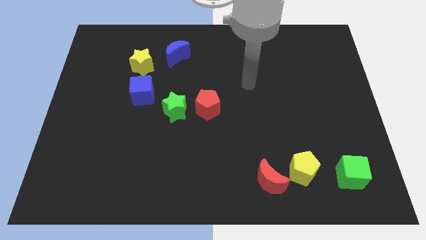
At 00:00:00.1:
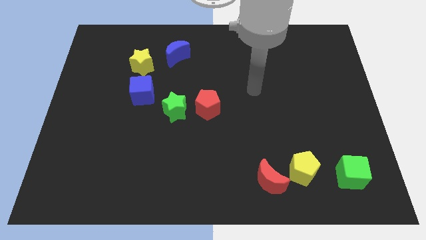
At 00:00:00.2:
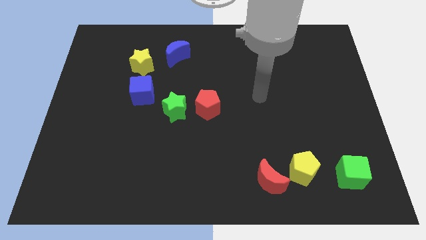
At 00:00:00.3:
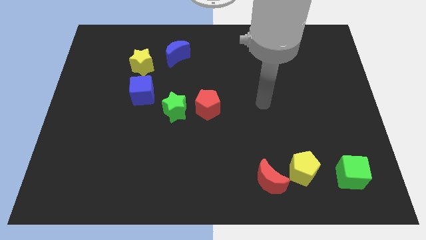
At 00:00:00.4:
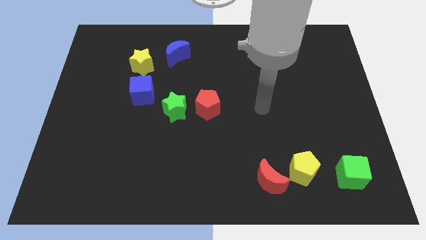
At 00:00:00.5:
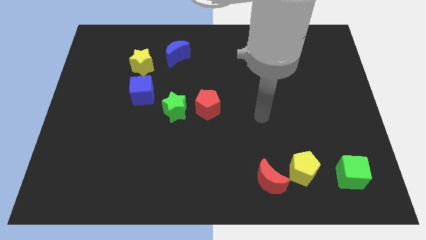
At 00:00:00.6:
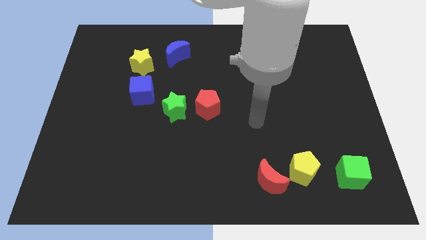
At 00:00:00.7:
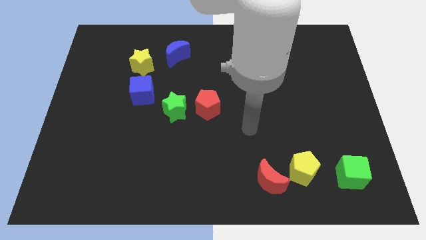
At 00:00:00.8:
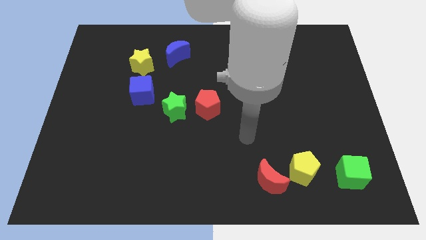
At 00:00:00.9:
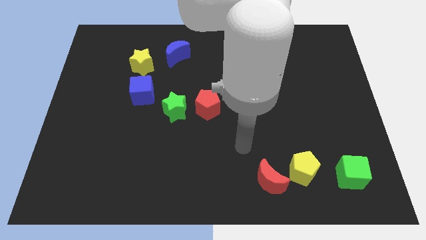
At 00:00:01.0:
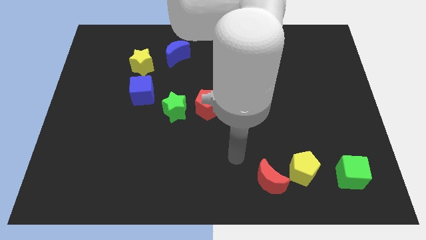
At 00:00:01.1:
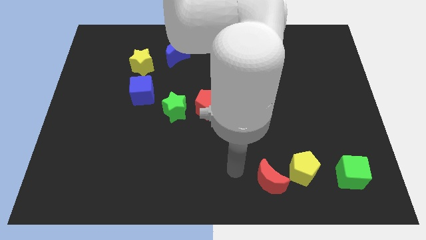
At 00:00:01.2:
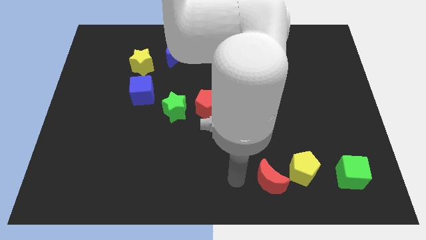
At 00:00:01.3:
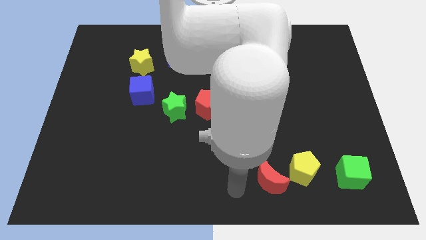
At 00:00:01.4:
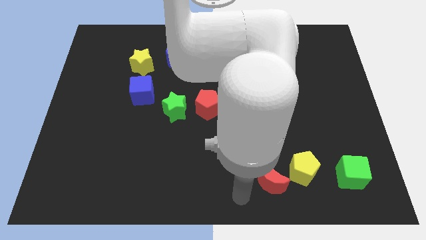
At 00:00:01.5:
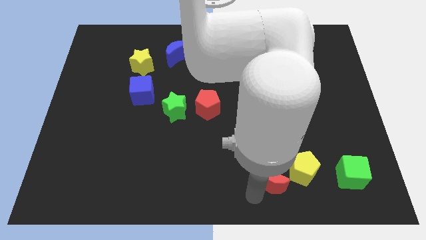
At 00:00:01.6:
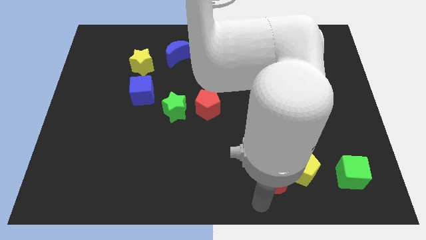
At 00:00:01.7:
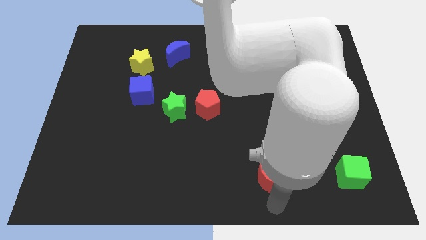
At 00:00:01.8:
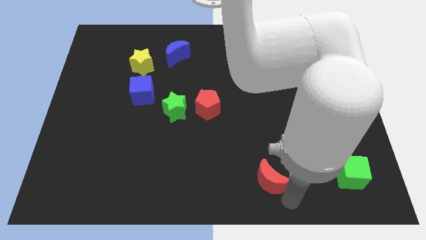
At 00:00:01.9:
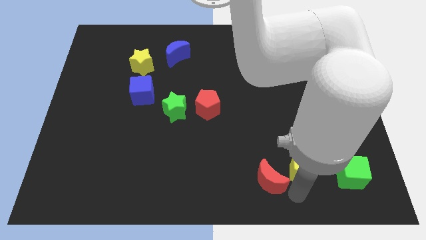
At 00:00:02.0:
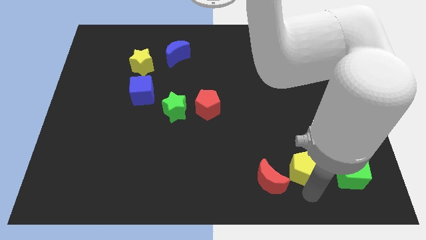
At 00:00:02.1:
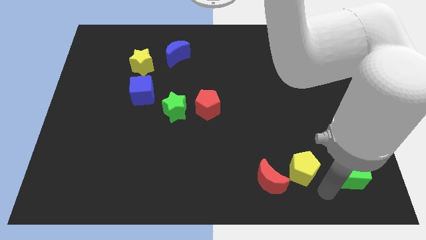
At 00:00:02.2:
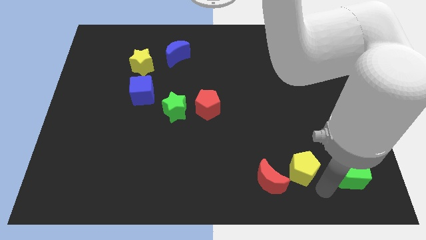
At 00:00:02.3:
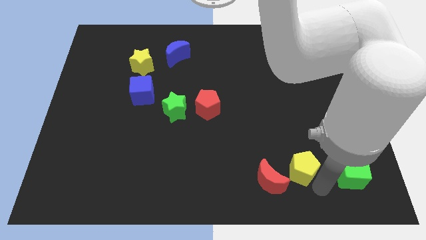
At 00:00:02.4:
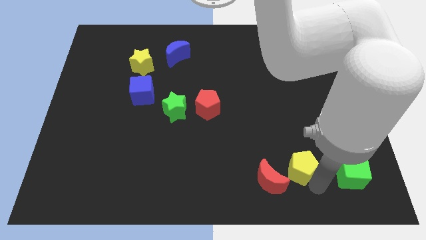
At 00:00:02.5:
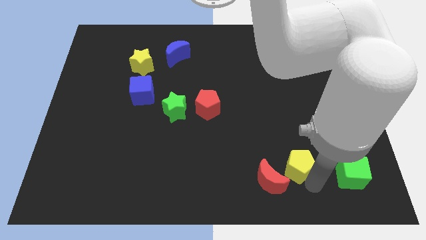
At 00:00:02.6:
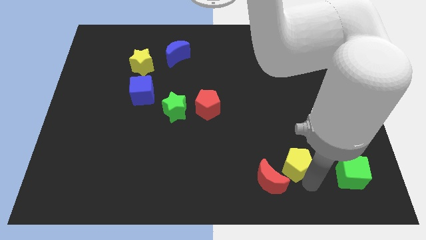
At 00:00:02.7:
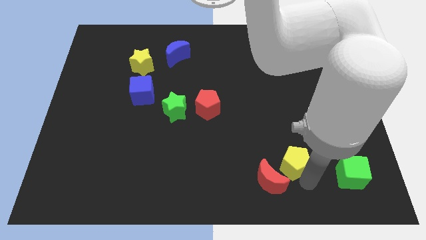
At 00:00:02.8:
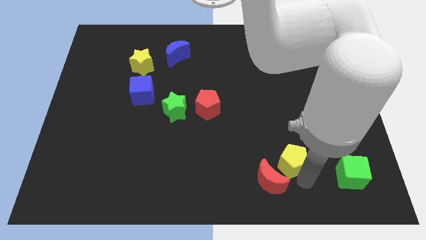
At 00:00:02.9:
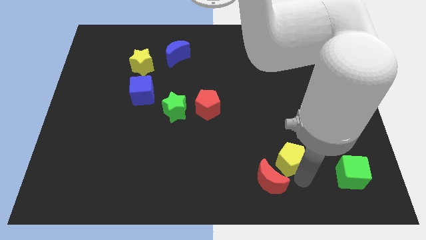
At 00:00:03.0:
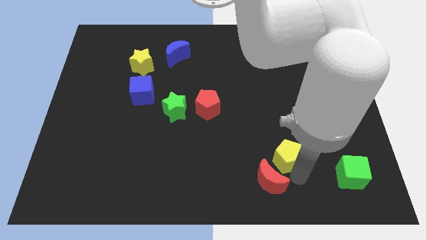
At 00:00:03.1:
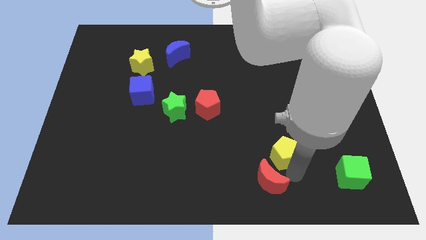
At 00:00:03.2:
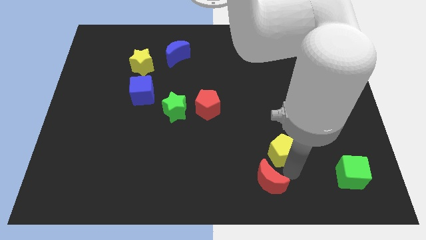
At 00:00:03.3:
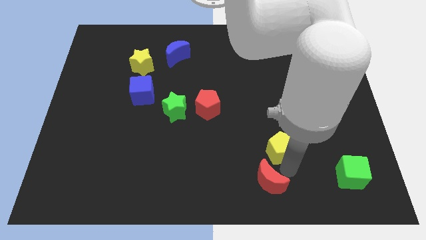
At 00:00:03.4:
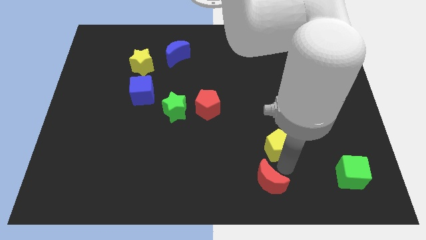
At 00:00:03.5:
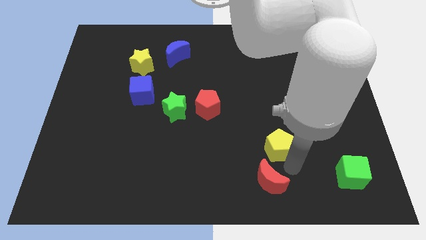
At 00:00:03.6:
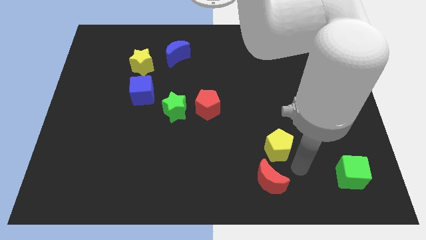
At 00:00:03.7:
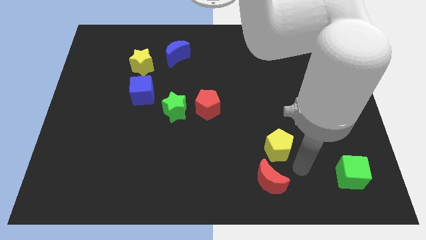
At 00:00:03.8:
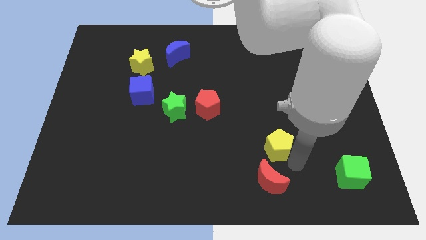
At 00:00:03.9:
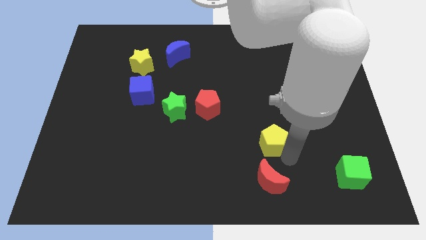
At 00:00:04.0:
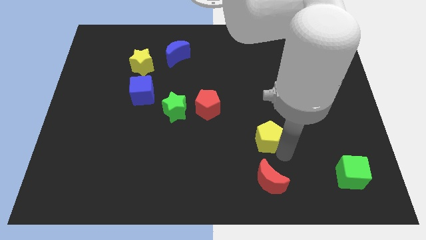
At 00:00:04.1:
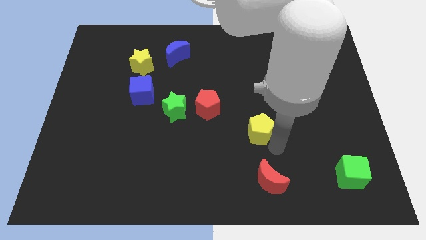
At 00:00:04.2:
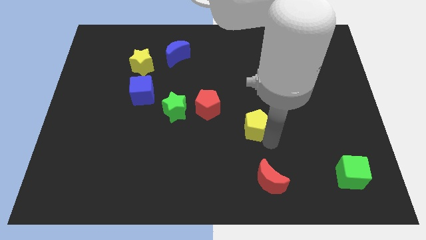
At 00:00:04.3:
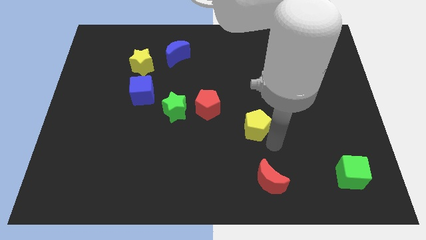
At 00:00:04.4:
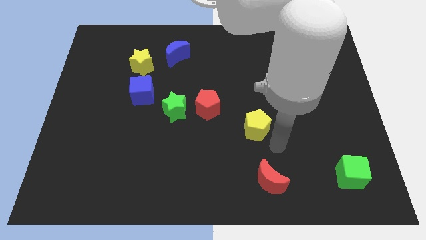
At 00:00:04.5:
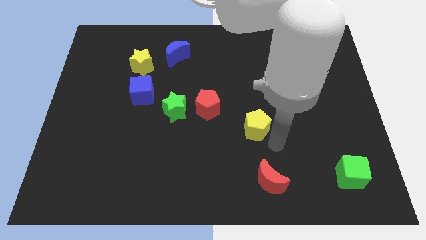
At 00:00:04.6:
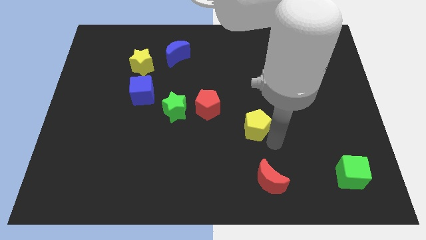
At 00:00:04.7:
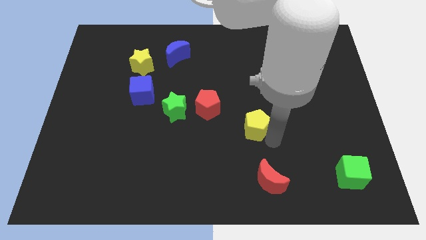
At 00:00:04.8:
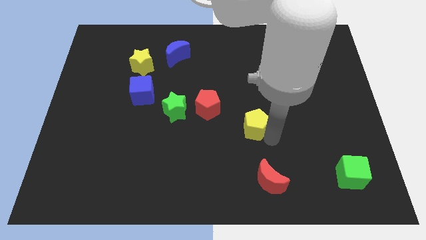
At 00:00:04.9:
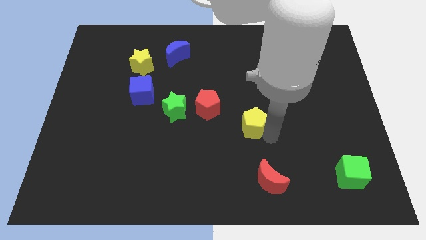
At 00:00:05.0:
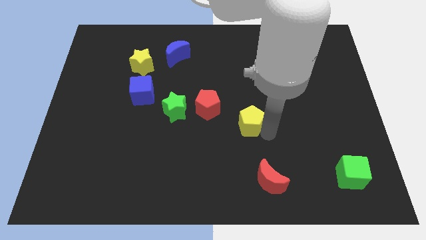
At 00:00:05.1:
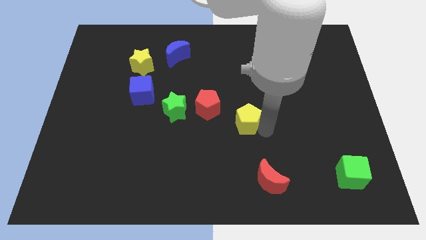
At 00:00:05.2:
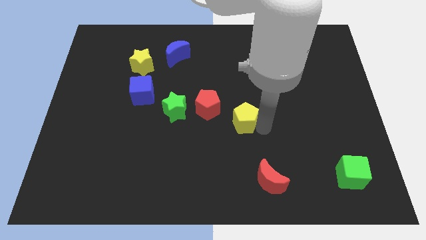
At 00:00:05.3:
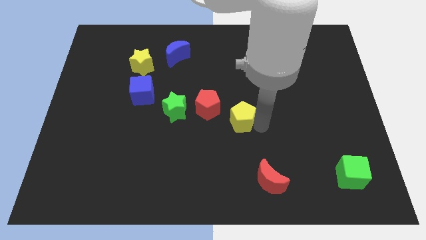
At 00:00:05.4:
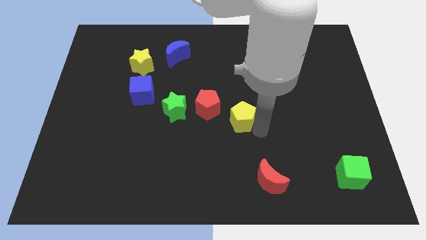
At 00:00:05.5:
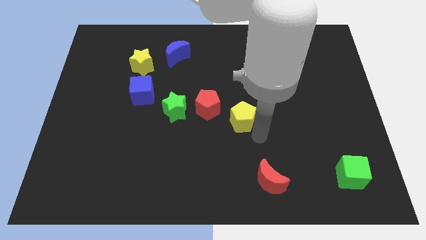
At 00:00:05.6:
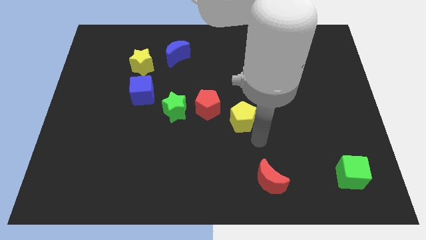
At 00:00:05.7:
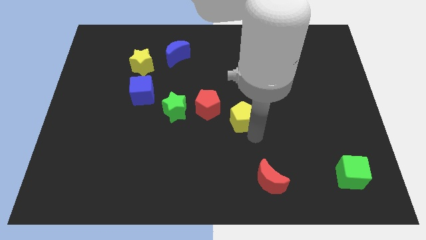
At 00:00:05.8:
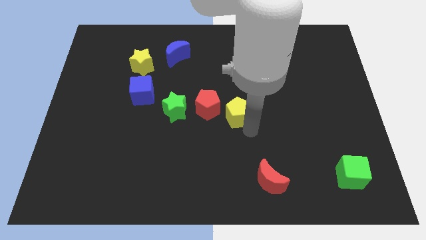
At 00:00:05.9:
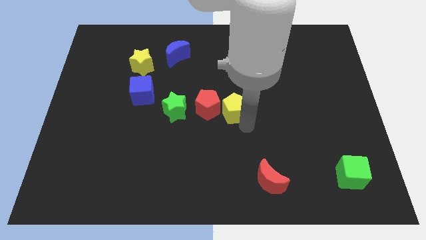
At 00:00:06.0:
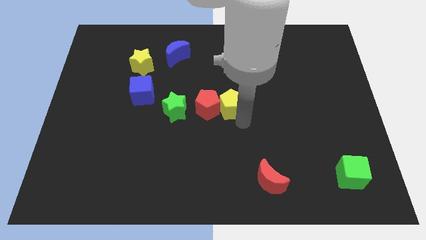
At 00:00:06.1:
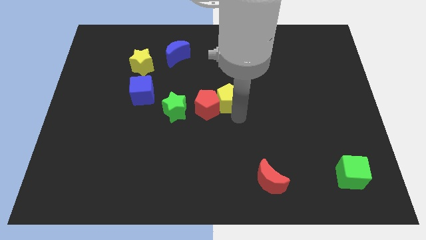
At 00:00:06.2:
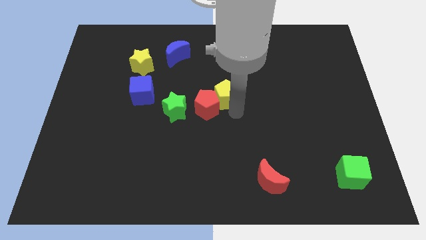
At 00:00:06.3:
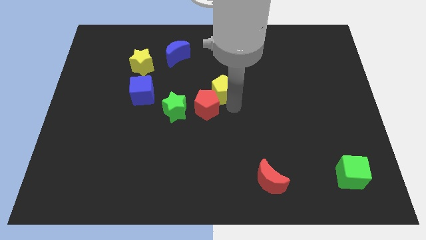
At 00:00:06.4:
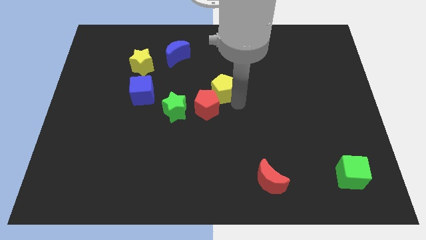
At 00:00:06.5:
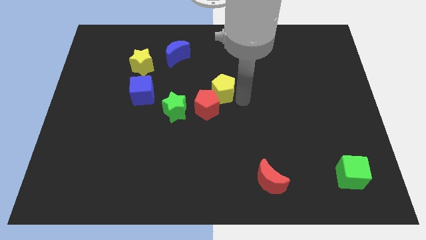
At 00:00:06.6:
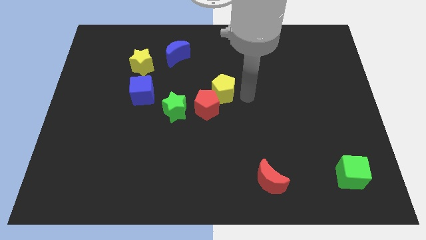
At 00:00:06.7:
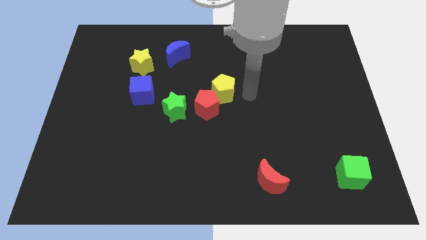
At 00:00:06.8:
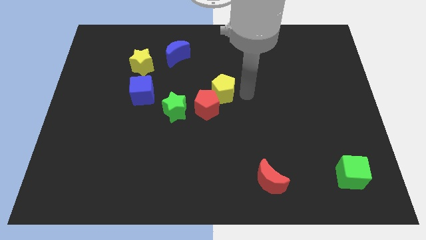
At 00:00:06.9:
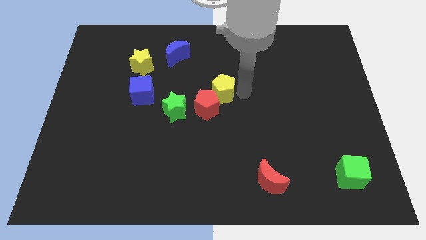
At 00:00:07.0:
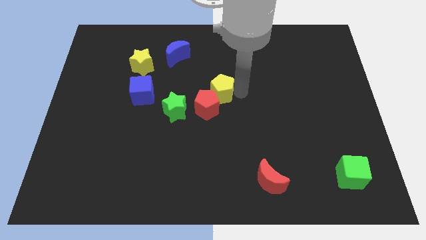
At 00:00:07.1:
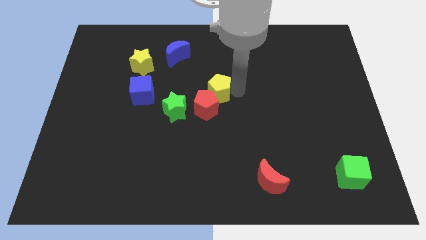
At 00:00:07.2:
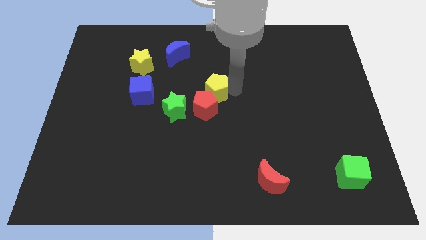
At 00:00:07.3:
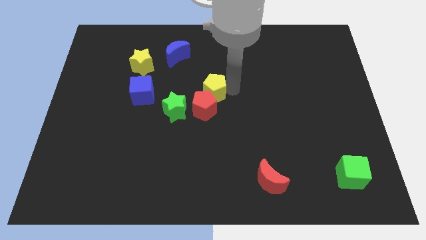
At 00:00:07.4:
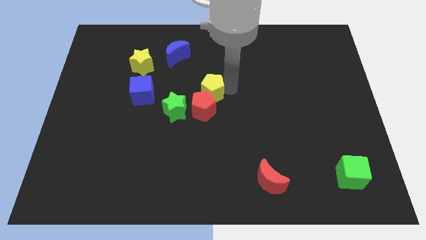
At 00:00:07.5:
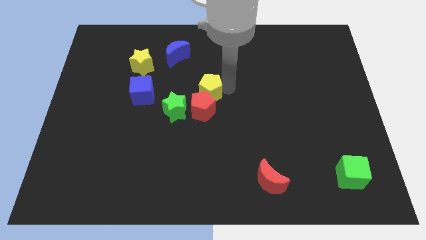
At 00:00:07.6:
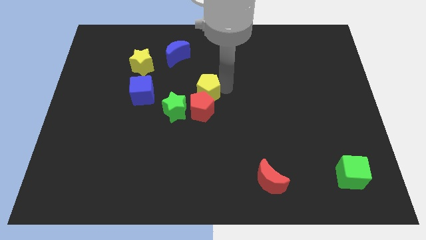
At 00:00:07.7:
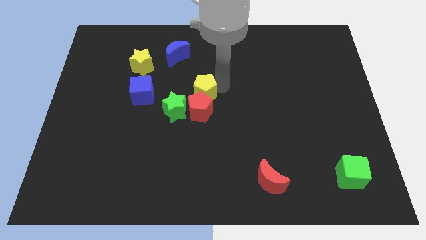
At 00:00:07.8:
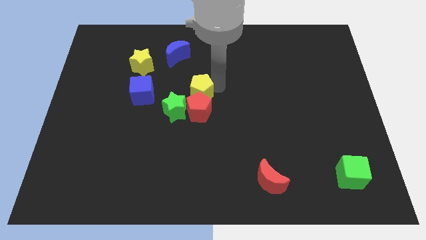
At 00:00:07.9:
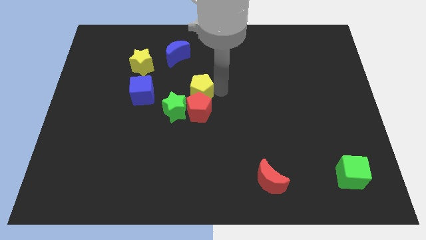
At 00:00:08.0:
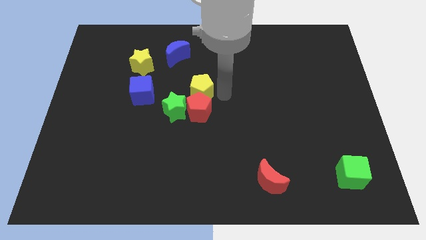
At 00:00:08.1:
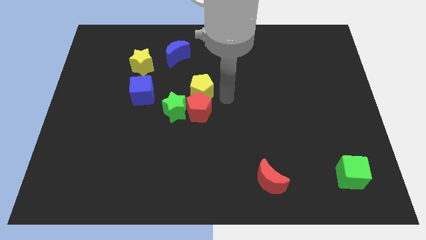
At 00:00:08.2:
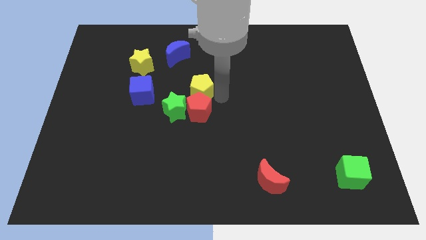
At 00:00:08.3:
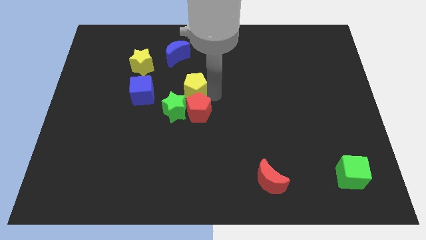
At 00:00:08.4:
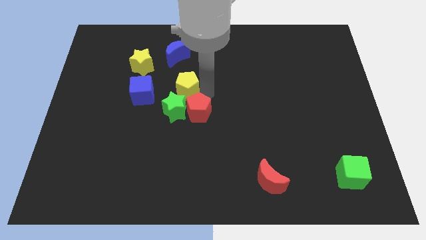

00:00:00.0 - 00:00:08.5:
move the yellow pentagon to the bottom side of the blue moon
